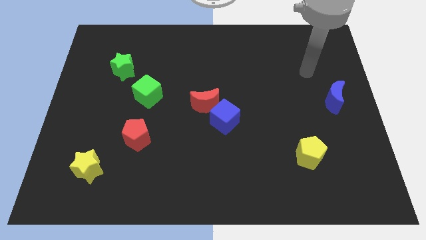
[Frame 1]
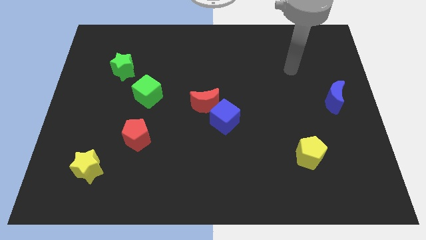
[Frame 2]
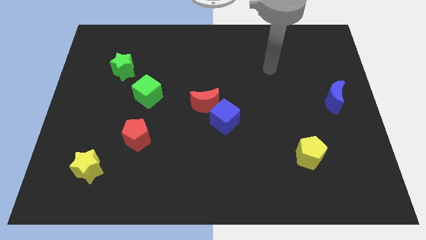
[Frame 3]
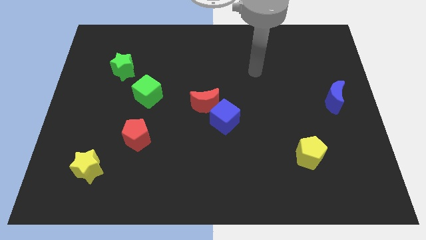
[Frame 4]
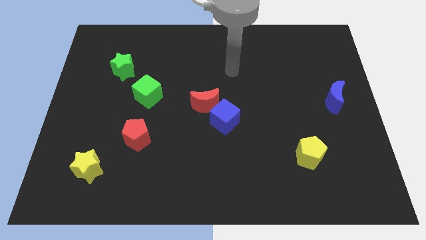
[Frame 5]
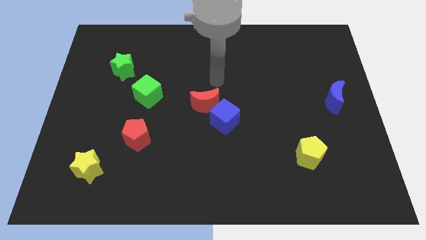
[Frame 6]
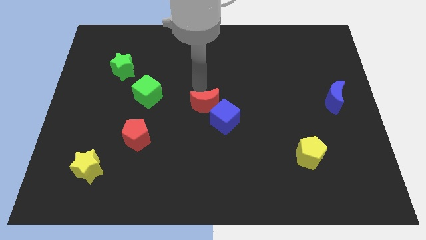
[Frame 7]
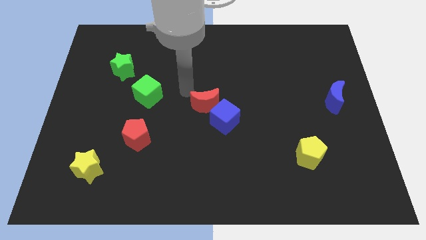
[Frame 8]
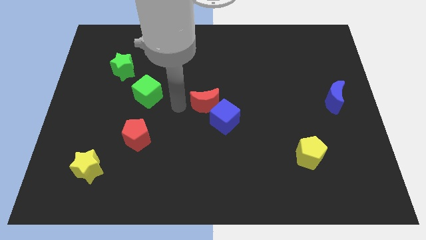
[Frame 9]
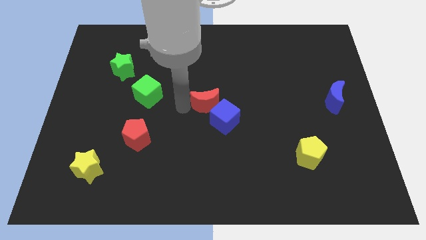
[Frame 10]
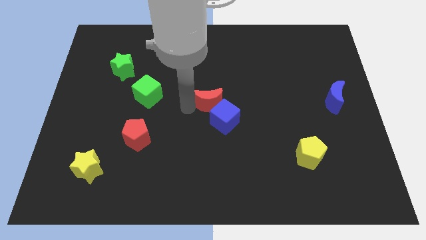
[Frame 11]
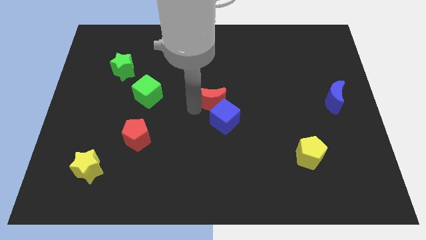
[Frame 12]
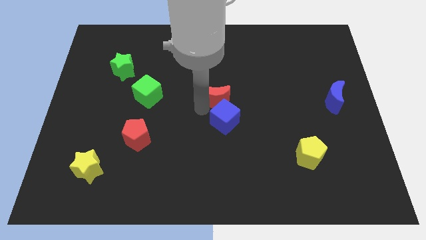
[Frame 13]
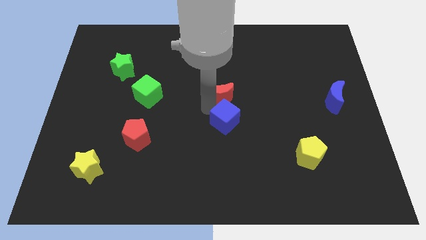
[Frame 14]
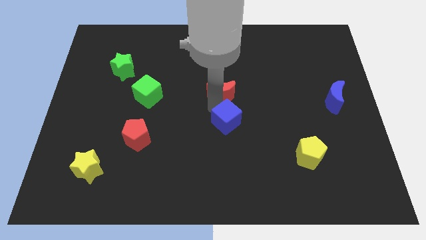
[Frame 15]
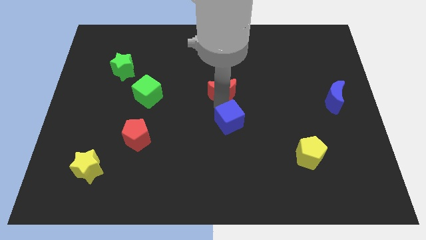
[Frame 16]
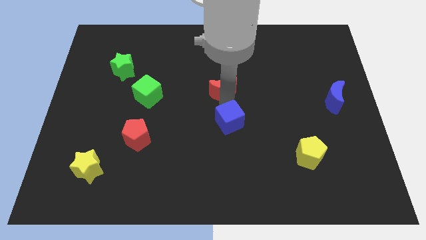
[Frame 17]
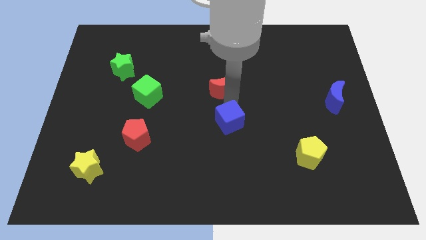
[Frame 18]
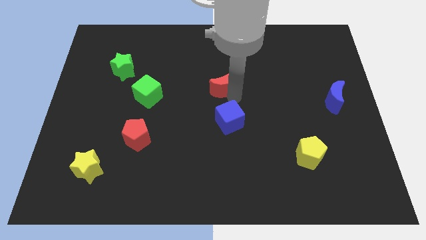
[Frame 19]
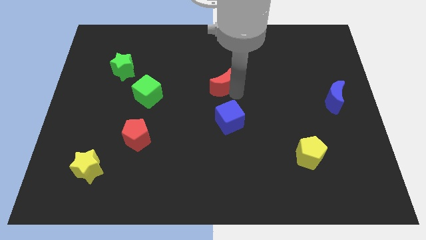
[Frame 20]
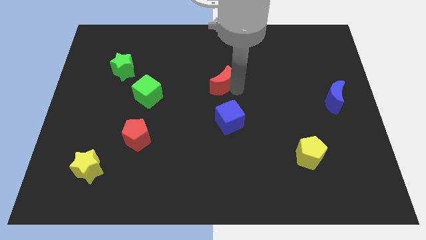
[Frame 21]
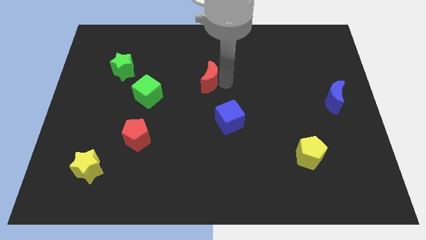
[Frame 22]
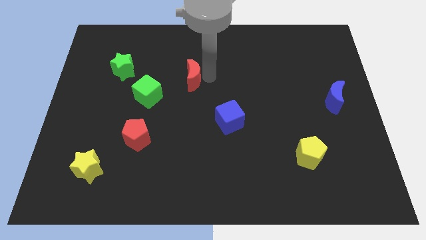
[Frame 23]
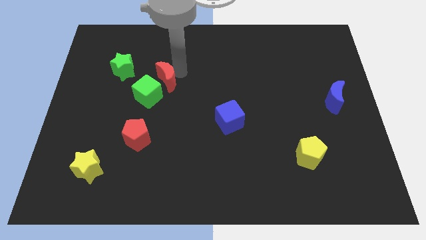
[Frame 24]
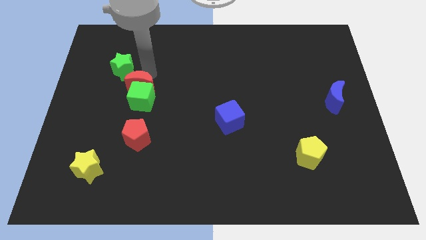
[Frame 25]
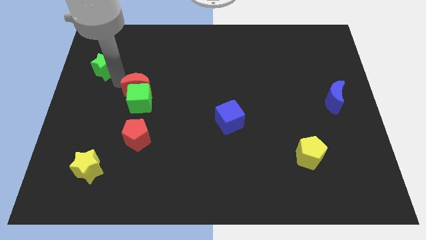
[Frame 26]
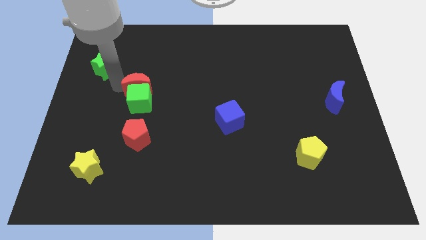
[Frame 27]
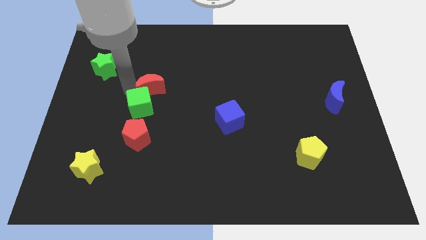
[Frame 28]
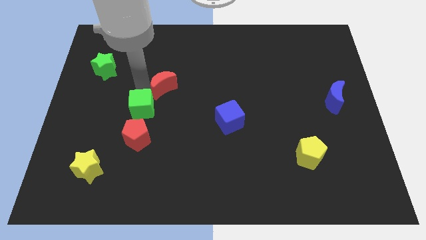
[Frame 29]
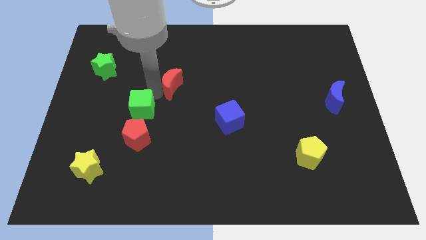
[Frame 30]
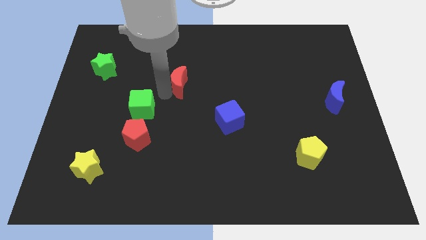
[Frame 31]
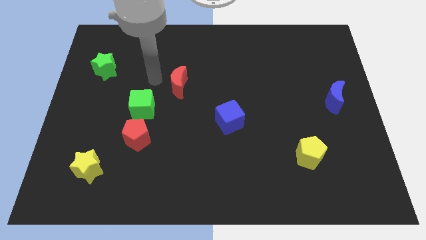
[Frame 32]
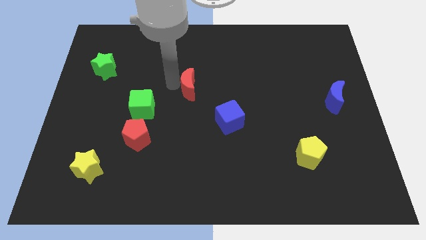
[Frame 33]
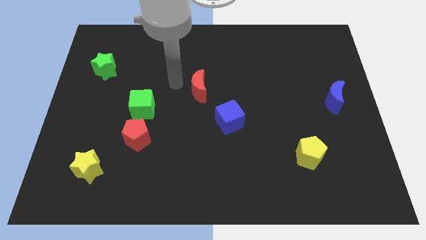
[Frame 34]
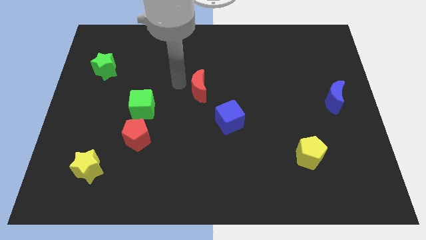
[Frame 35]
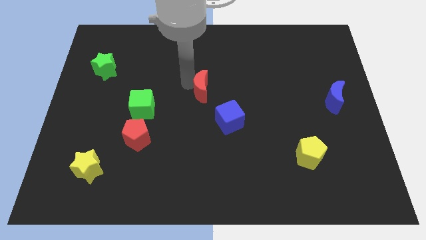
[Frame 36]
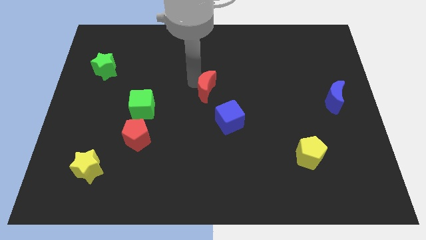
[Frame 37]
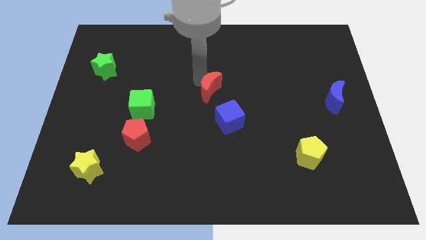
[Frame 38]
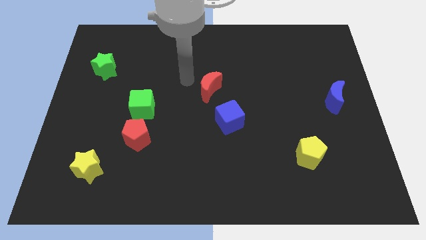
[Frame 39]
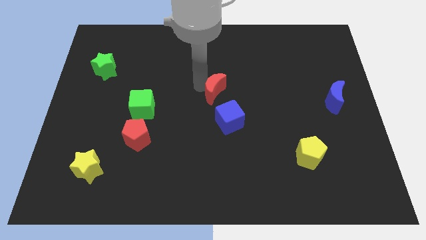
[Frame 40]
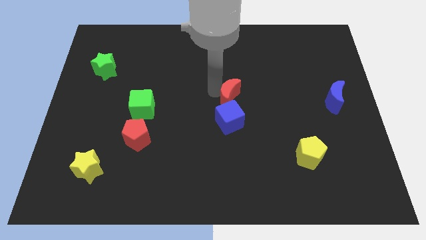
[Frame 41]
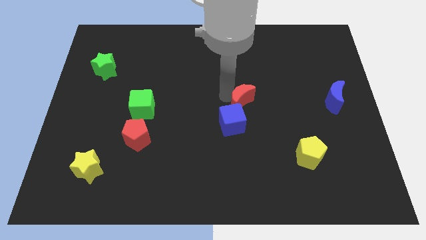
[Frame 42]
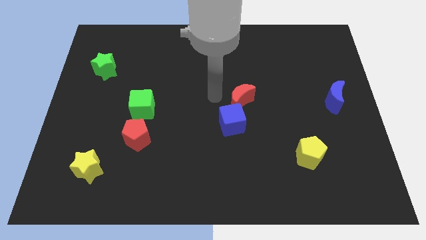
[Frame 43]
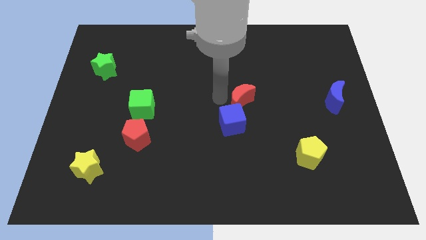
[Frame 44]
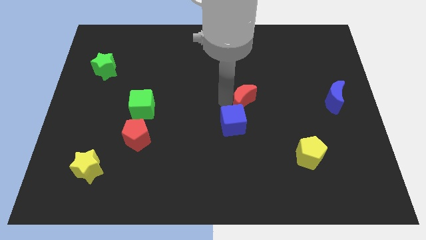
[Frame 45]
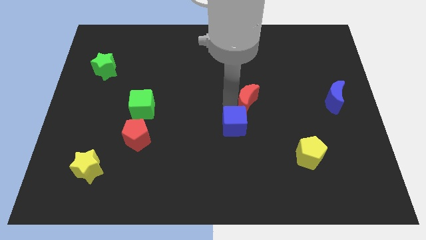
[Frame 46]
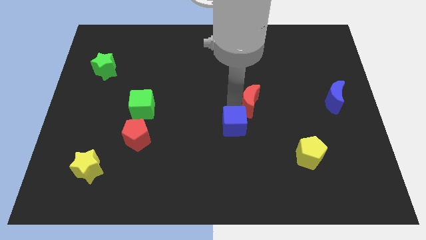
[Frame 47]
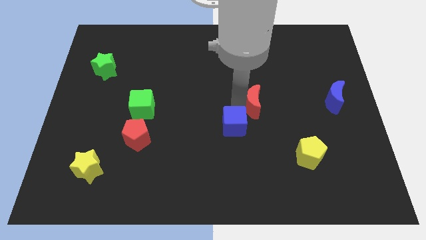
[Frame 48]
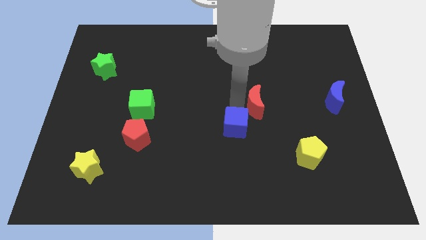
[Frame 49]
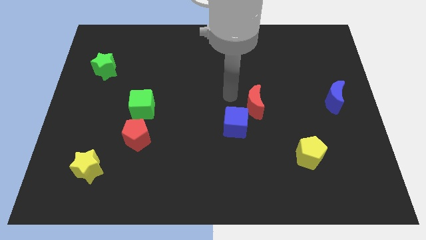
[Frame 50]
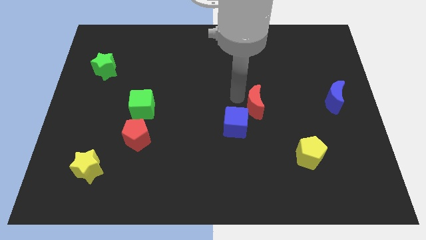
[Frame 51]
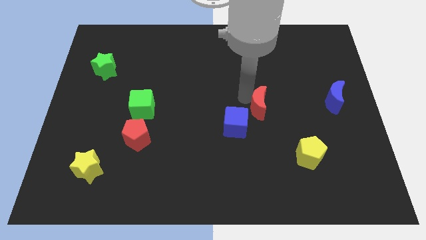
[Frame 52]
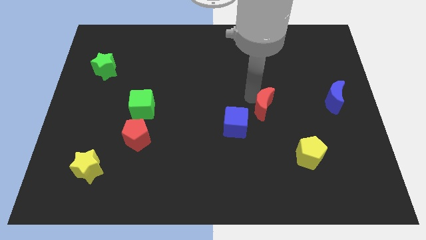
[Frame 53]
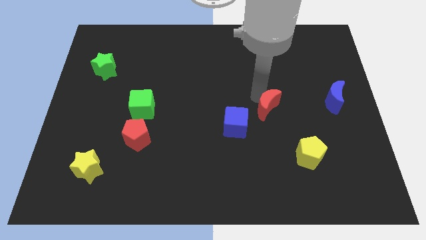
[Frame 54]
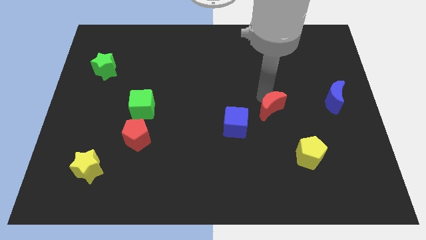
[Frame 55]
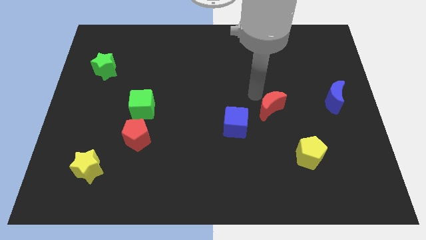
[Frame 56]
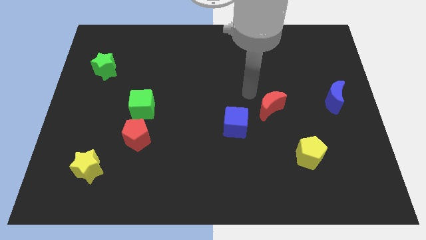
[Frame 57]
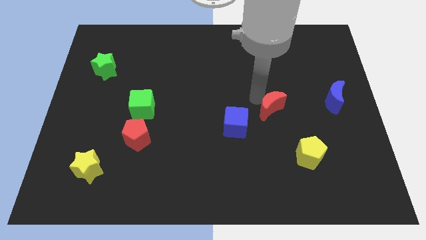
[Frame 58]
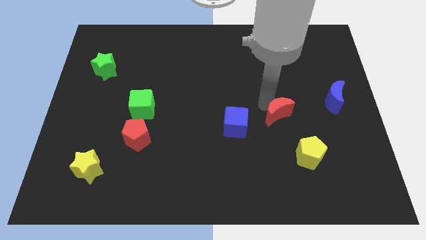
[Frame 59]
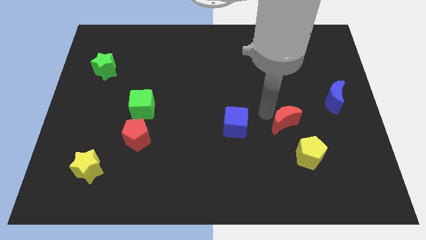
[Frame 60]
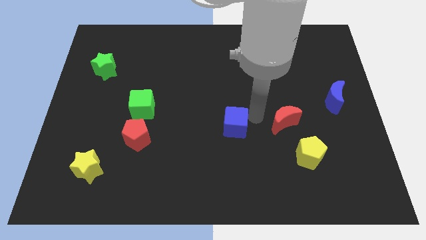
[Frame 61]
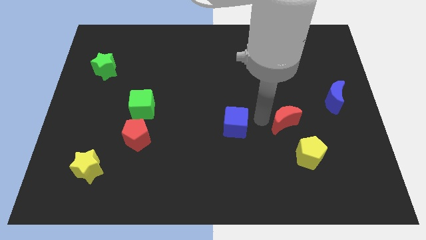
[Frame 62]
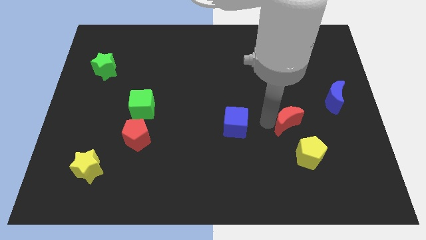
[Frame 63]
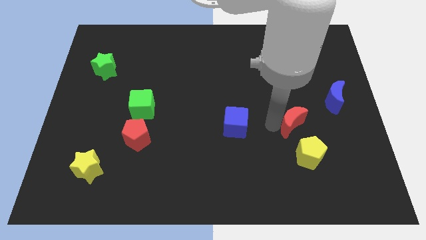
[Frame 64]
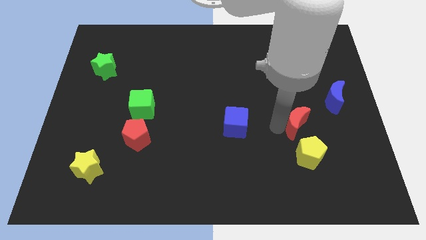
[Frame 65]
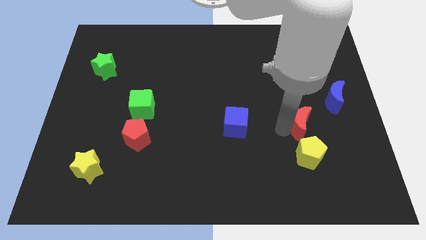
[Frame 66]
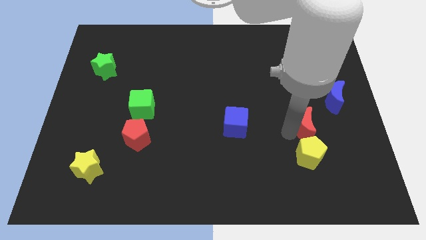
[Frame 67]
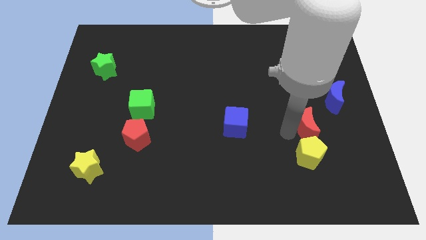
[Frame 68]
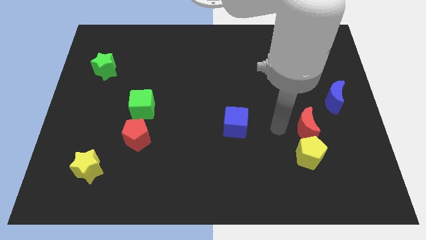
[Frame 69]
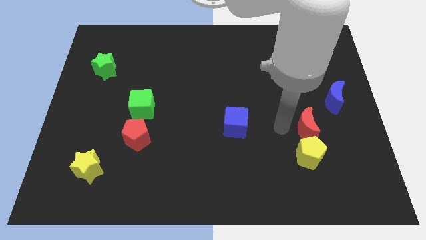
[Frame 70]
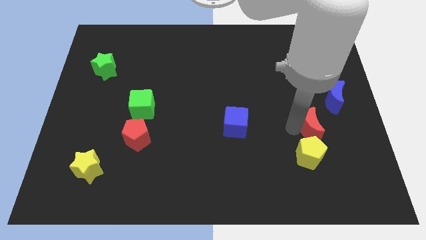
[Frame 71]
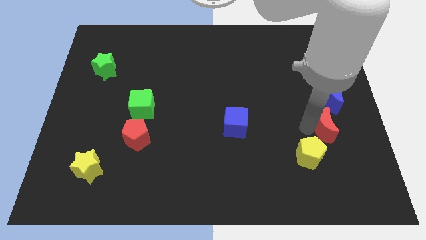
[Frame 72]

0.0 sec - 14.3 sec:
put the red moon below the blue moon
